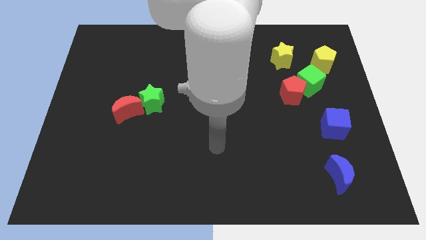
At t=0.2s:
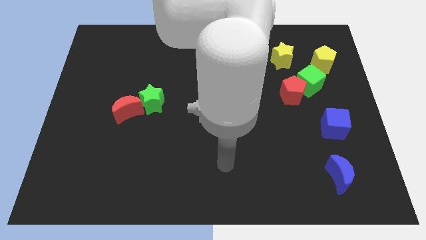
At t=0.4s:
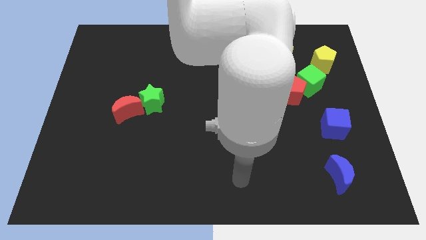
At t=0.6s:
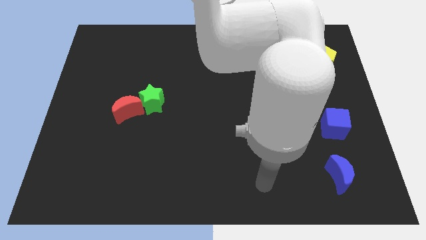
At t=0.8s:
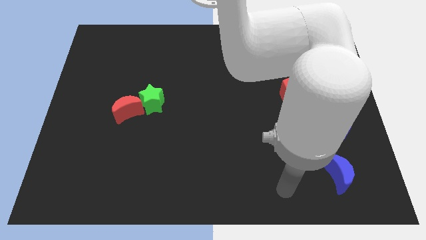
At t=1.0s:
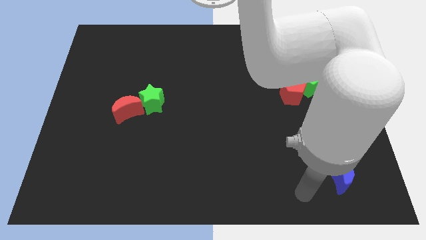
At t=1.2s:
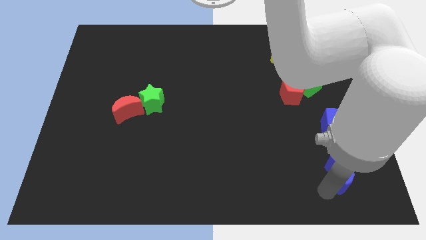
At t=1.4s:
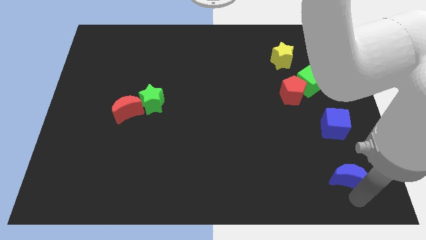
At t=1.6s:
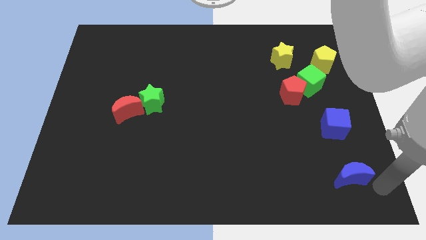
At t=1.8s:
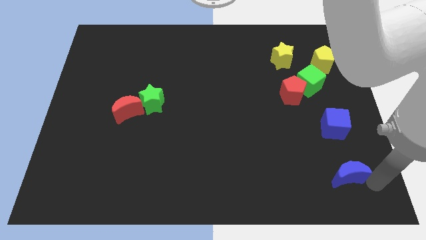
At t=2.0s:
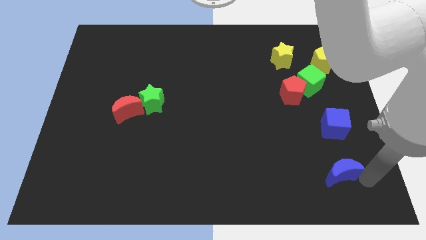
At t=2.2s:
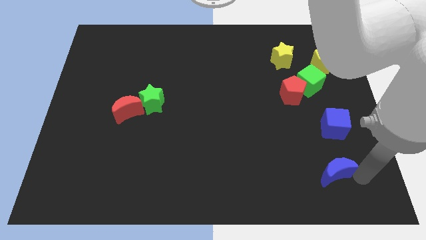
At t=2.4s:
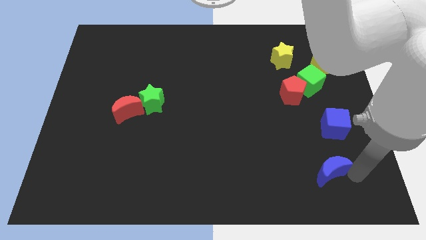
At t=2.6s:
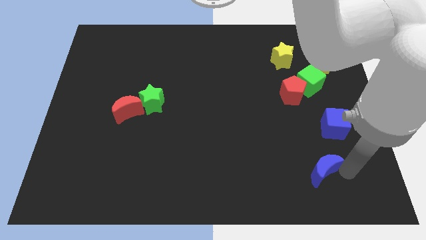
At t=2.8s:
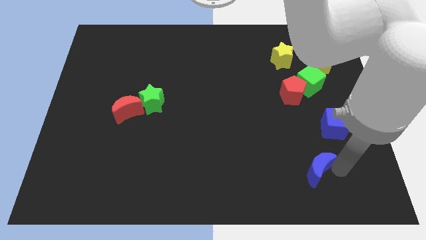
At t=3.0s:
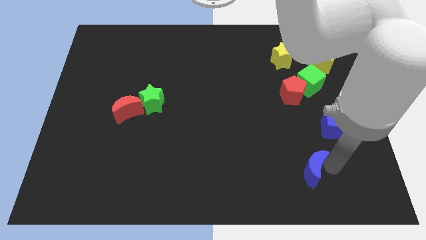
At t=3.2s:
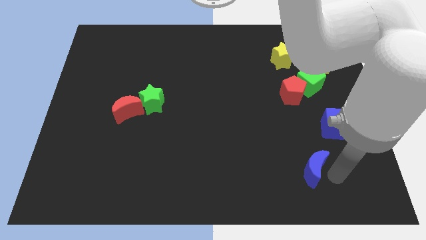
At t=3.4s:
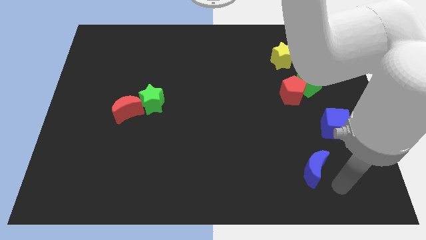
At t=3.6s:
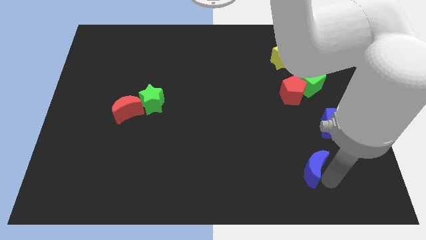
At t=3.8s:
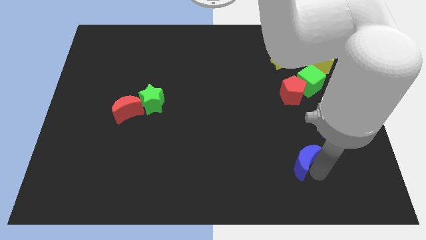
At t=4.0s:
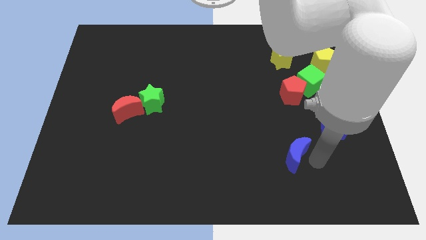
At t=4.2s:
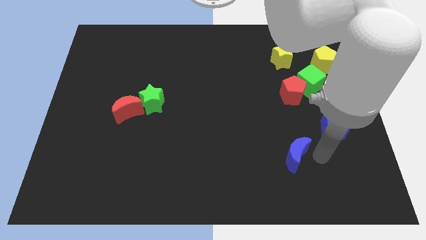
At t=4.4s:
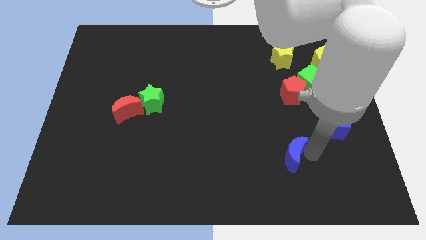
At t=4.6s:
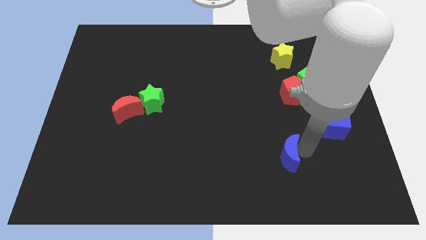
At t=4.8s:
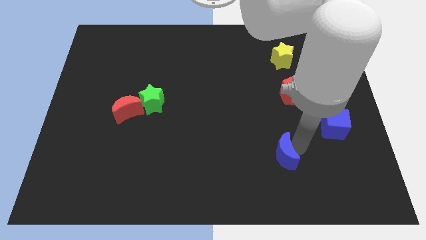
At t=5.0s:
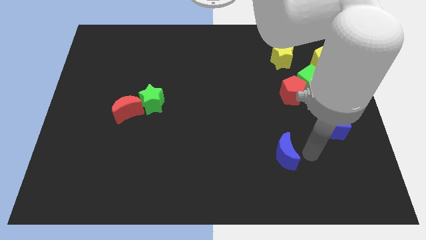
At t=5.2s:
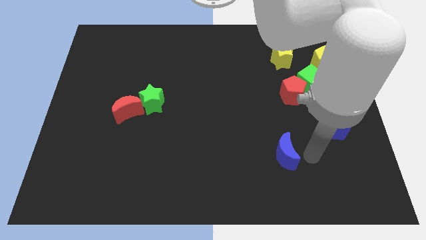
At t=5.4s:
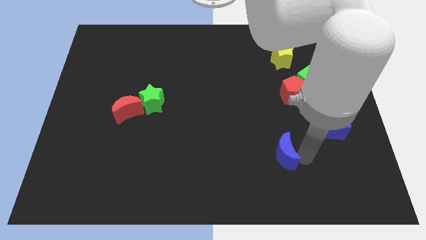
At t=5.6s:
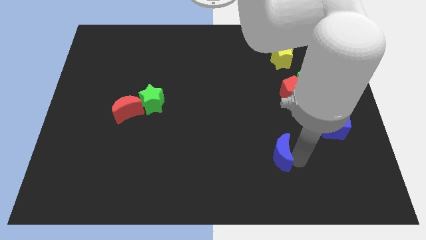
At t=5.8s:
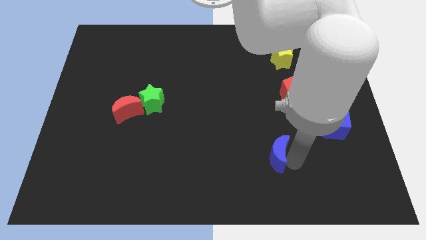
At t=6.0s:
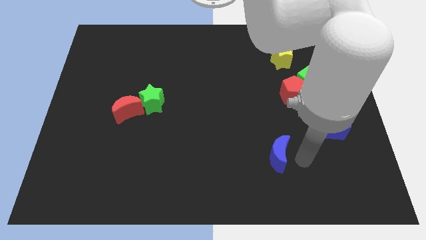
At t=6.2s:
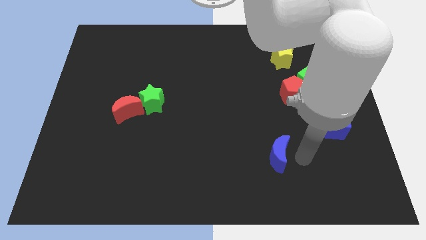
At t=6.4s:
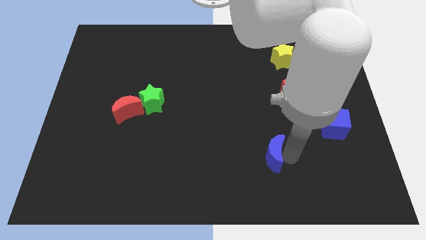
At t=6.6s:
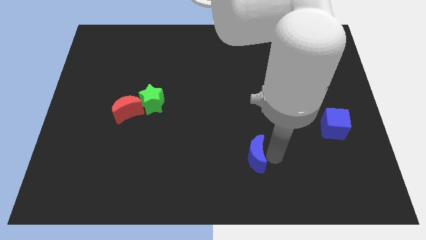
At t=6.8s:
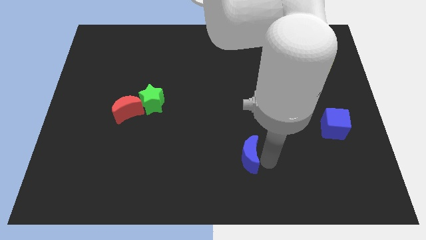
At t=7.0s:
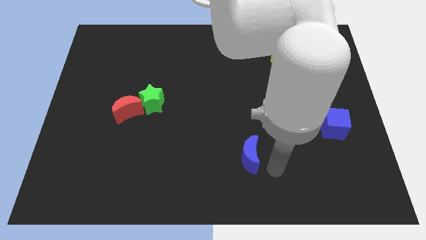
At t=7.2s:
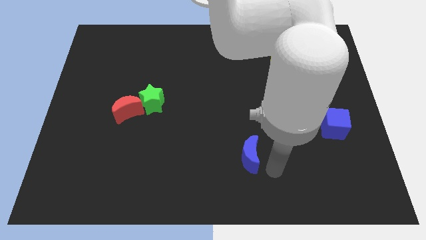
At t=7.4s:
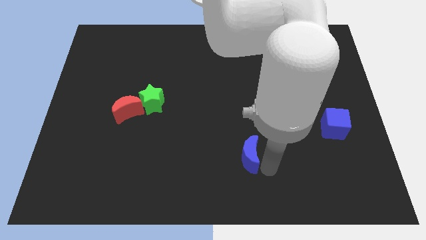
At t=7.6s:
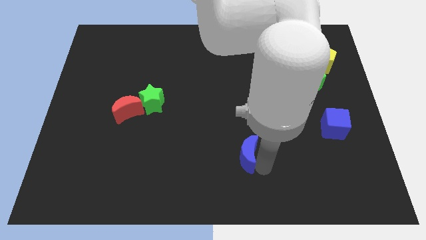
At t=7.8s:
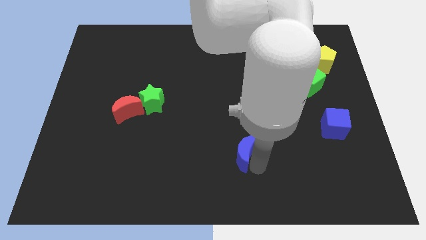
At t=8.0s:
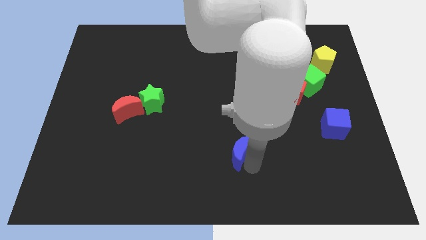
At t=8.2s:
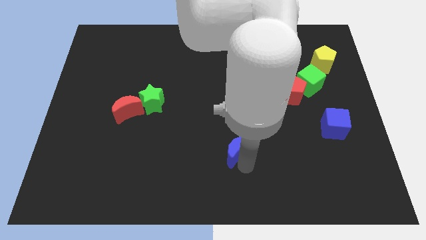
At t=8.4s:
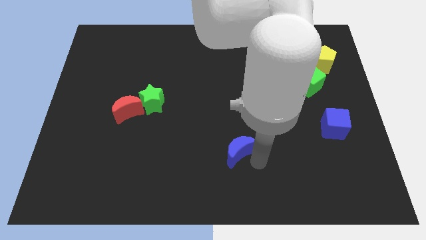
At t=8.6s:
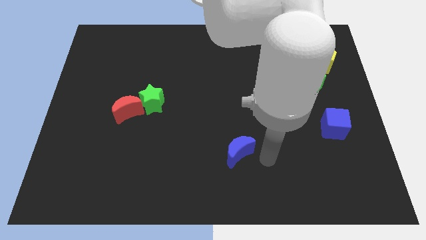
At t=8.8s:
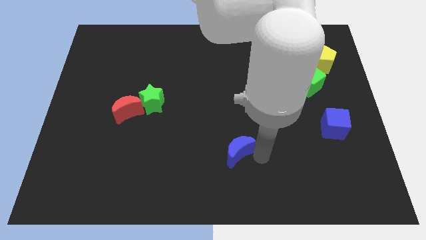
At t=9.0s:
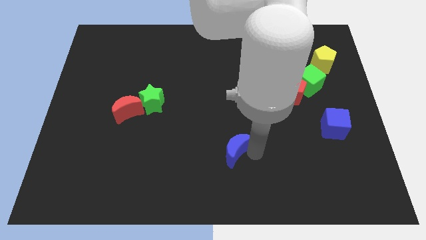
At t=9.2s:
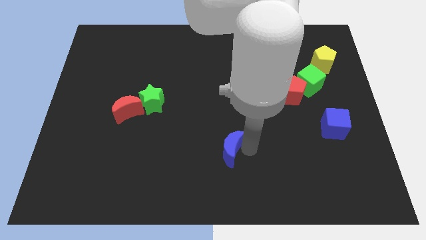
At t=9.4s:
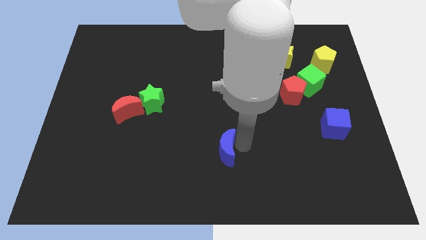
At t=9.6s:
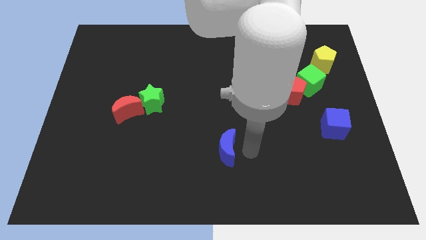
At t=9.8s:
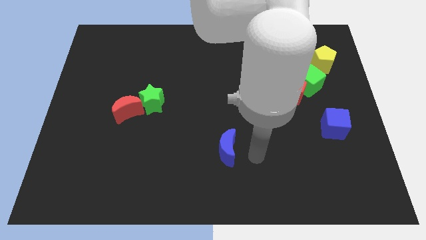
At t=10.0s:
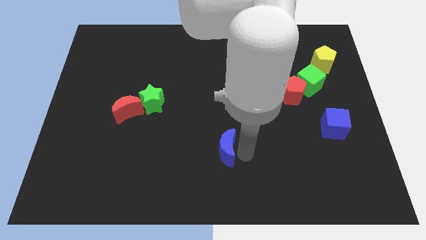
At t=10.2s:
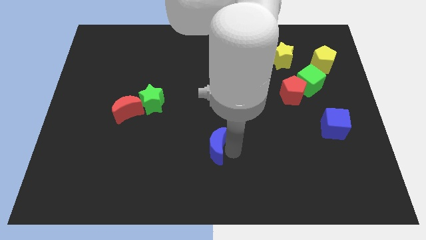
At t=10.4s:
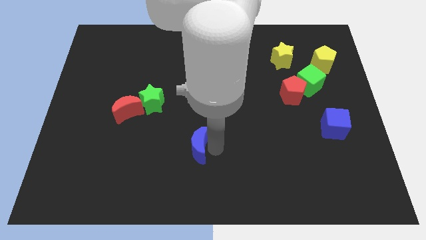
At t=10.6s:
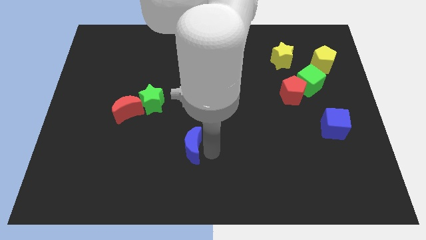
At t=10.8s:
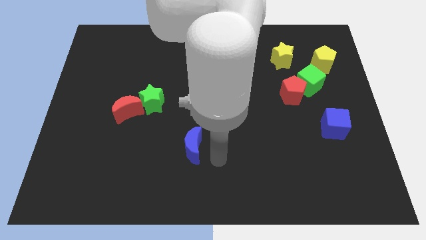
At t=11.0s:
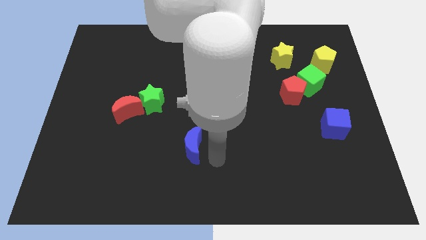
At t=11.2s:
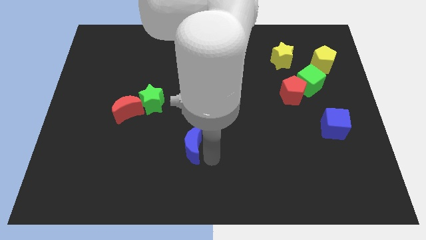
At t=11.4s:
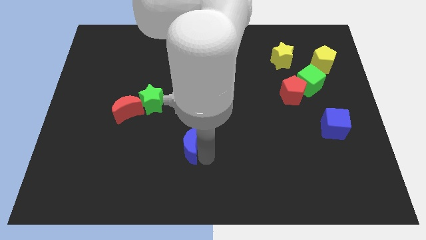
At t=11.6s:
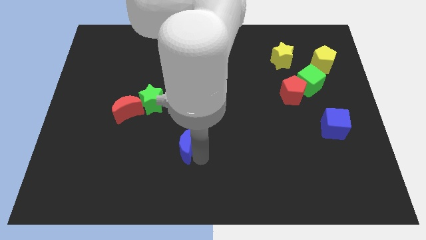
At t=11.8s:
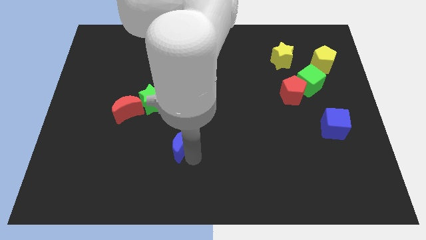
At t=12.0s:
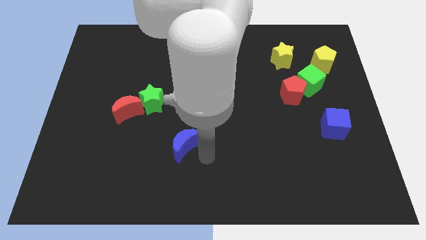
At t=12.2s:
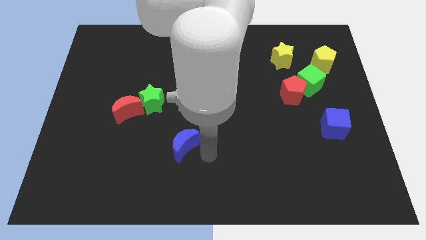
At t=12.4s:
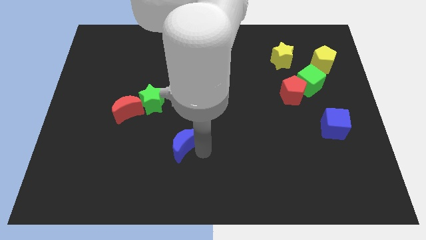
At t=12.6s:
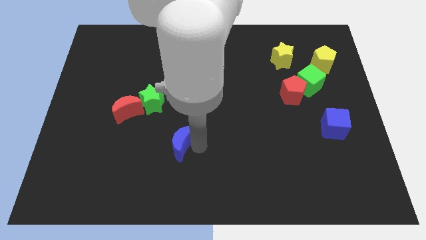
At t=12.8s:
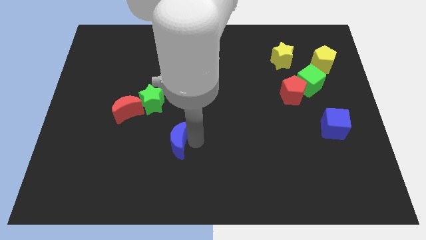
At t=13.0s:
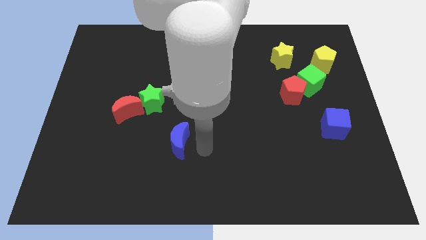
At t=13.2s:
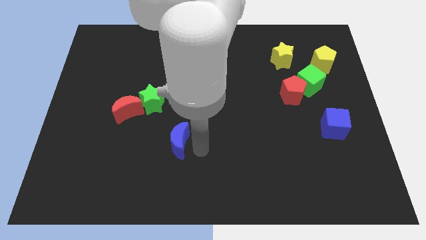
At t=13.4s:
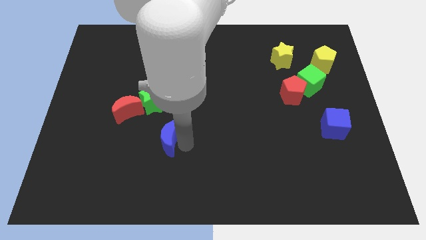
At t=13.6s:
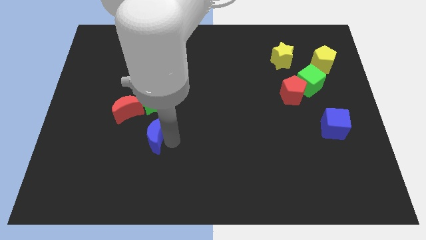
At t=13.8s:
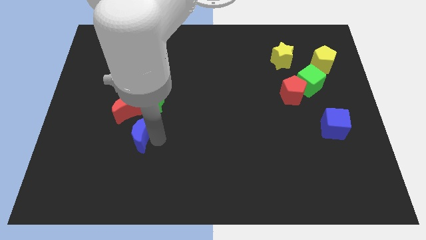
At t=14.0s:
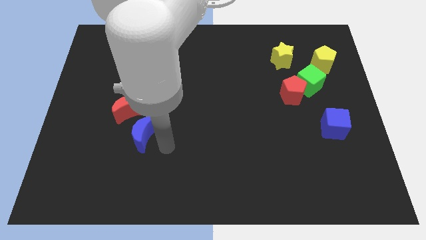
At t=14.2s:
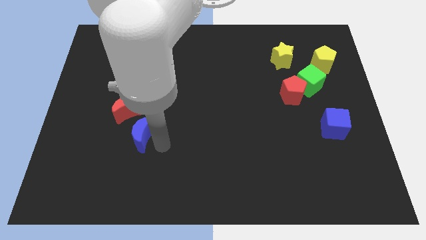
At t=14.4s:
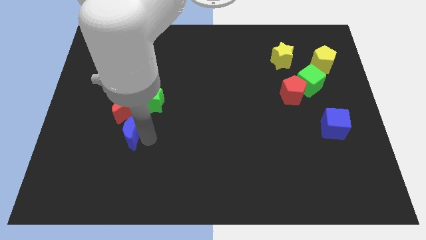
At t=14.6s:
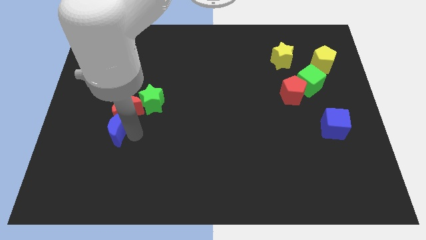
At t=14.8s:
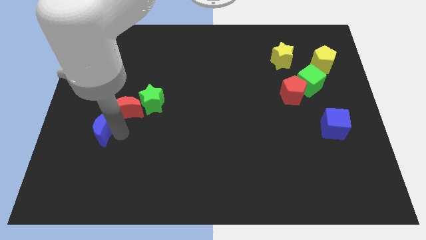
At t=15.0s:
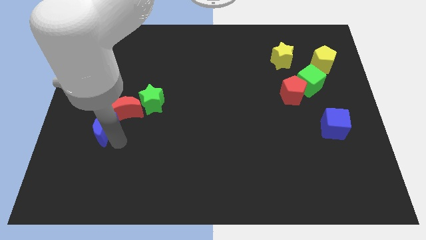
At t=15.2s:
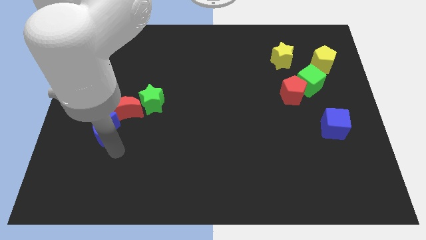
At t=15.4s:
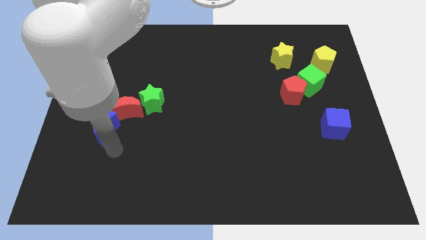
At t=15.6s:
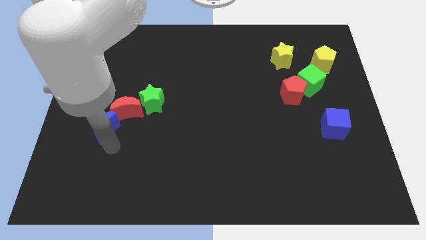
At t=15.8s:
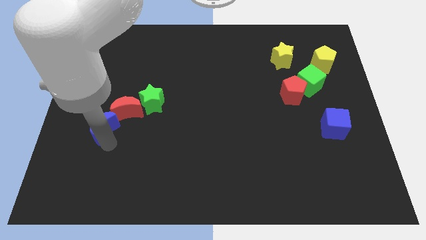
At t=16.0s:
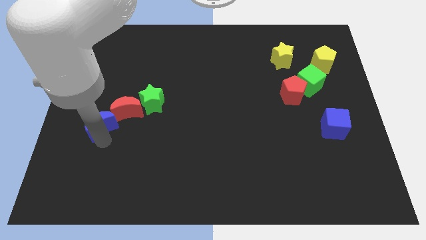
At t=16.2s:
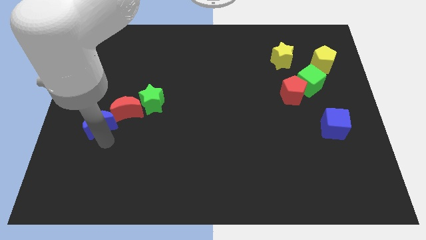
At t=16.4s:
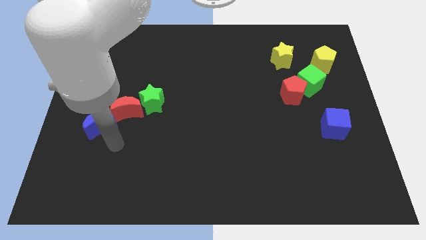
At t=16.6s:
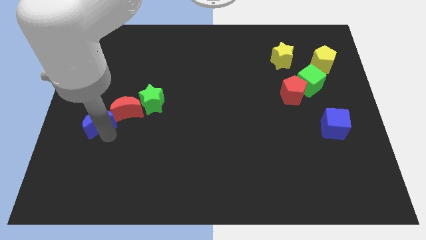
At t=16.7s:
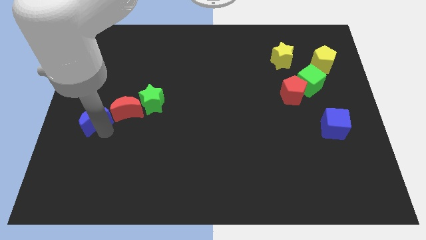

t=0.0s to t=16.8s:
slide the blue moon to the left side
